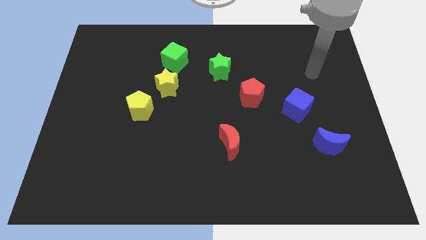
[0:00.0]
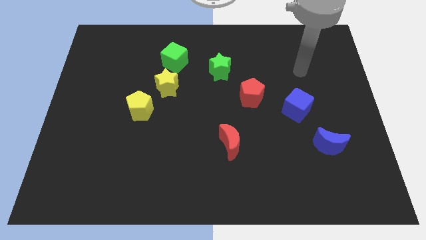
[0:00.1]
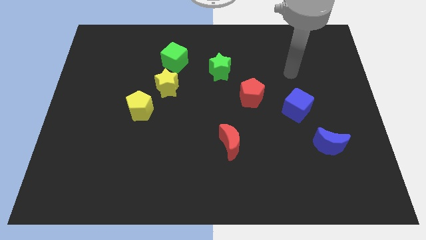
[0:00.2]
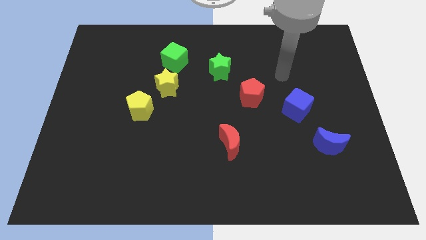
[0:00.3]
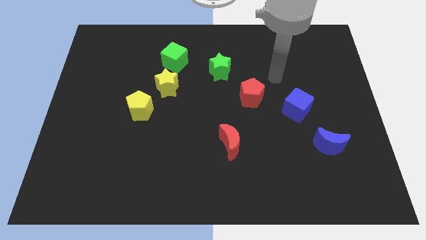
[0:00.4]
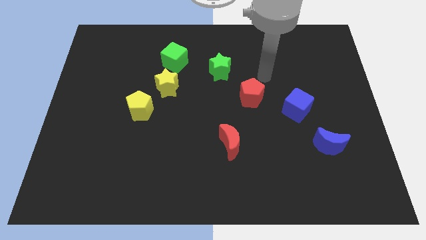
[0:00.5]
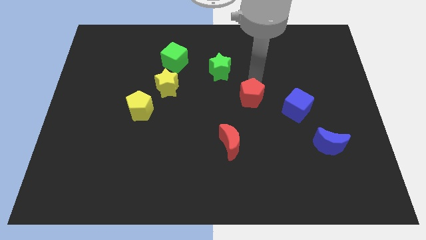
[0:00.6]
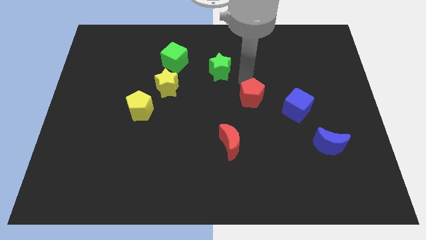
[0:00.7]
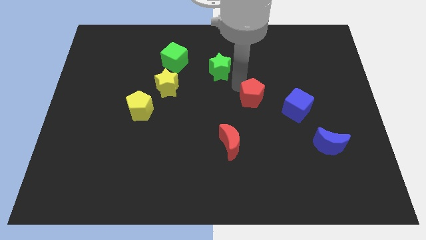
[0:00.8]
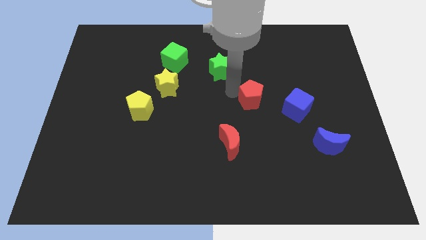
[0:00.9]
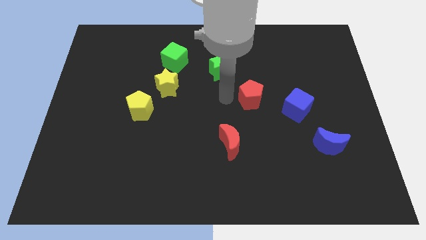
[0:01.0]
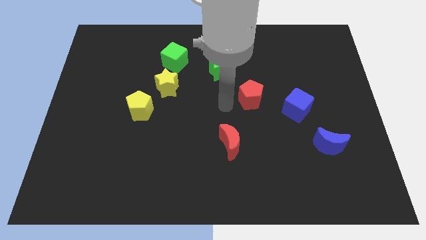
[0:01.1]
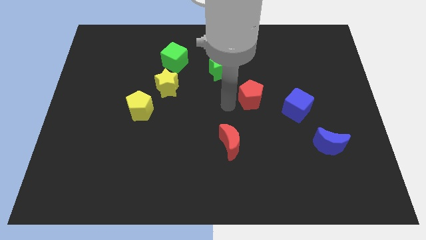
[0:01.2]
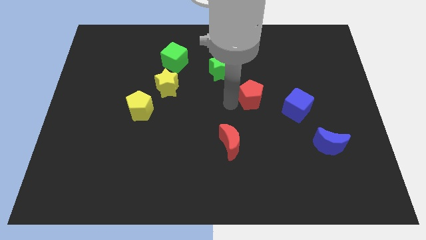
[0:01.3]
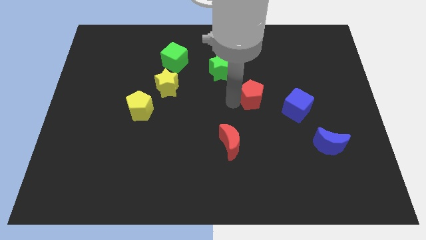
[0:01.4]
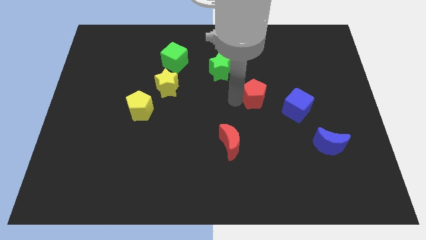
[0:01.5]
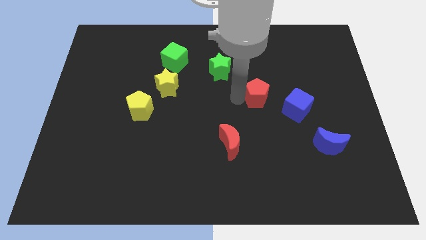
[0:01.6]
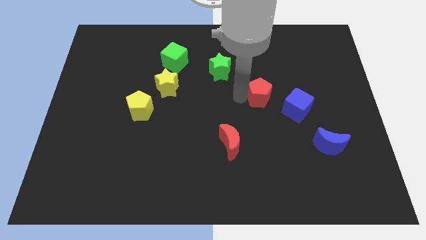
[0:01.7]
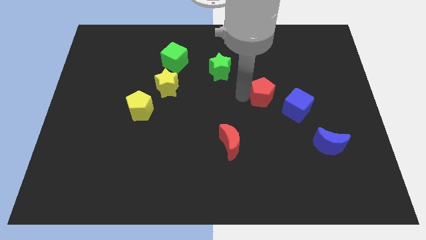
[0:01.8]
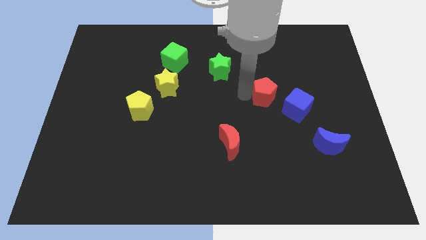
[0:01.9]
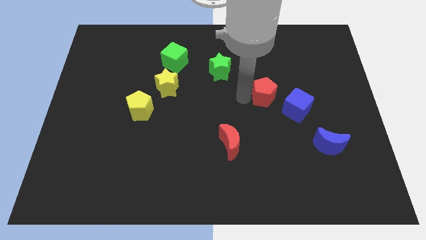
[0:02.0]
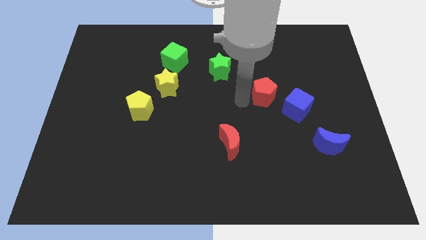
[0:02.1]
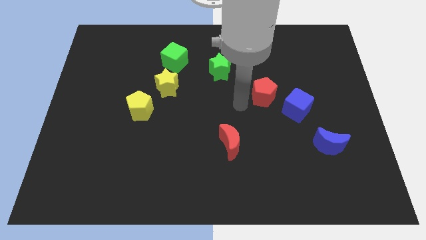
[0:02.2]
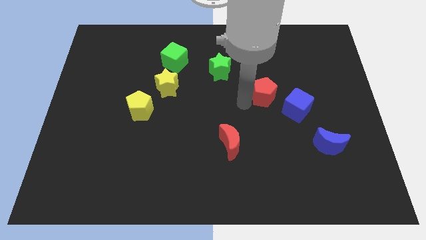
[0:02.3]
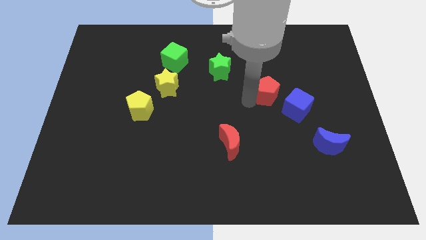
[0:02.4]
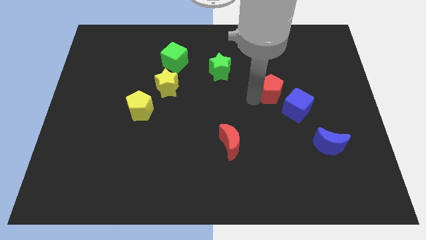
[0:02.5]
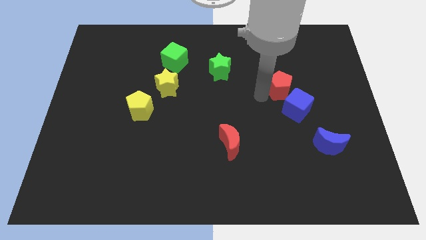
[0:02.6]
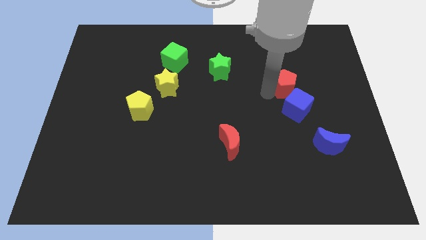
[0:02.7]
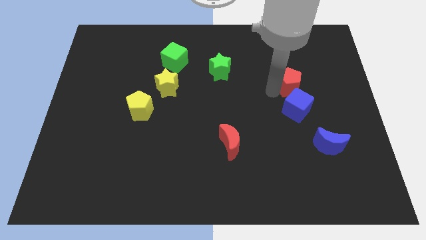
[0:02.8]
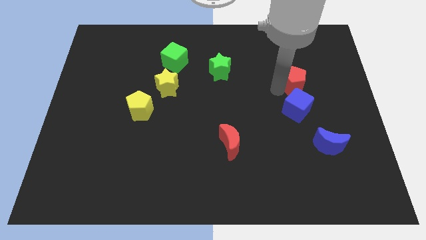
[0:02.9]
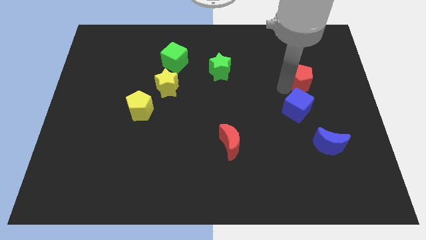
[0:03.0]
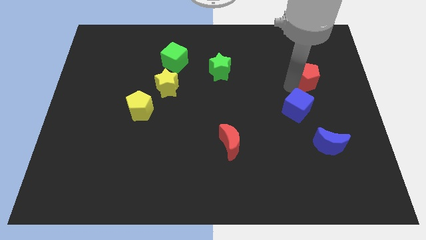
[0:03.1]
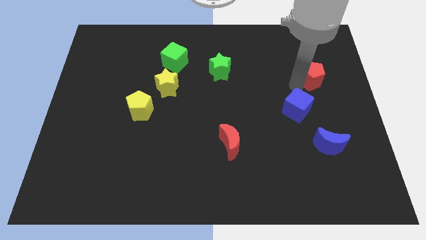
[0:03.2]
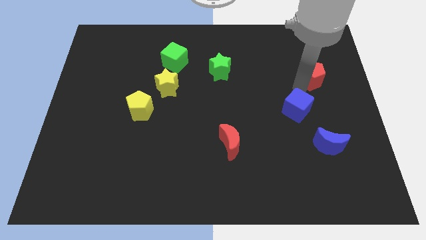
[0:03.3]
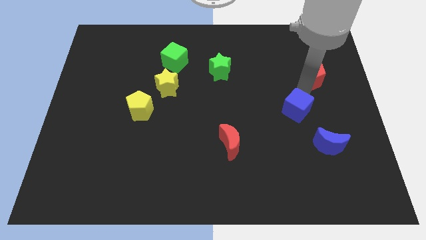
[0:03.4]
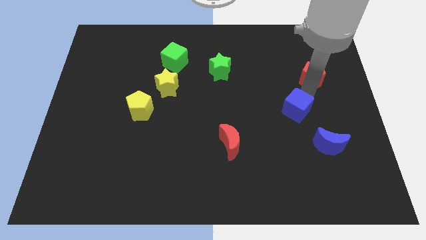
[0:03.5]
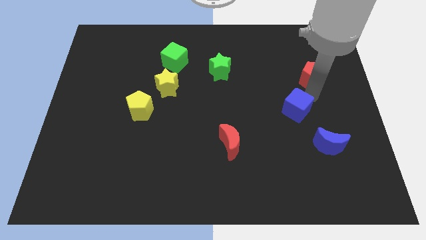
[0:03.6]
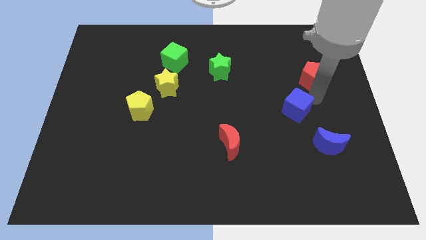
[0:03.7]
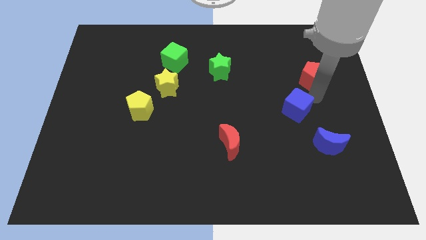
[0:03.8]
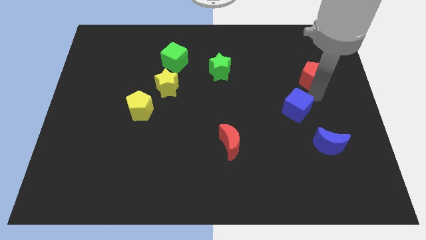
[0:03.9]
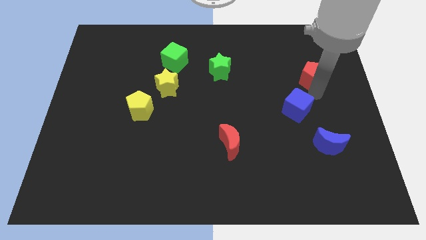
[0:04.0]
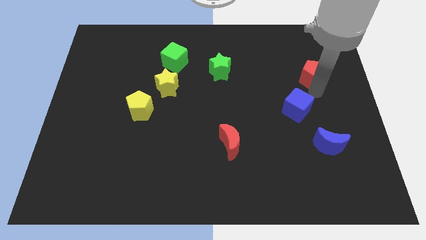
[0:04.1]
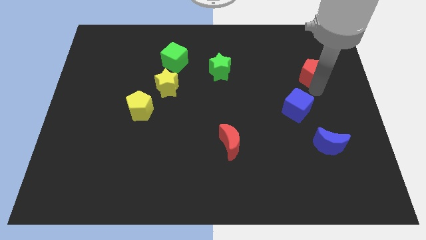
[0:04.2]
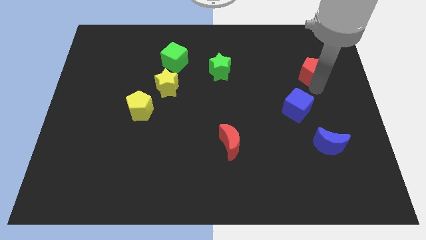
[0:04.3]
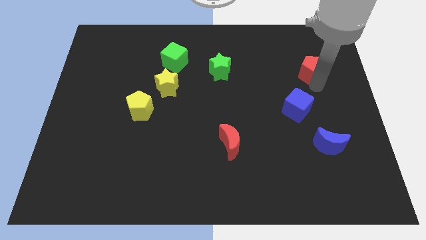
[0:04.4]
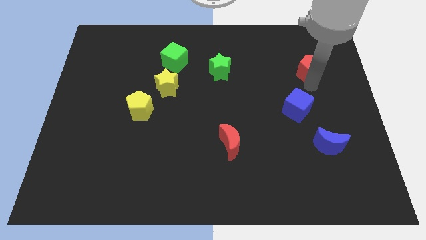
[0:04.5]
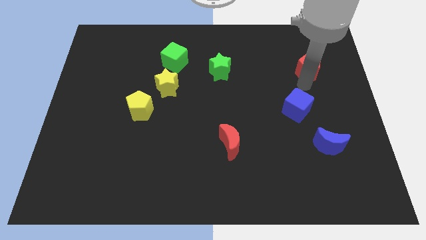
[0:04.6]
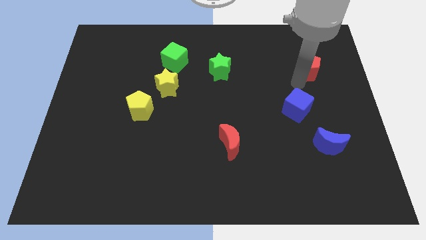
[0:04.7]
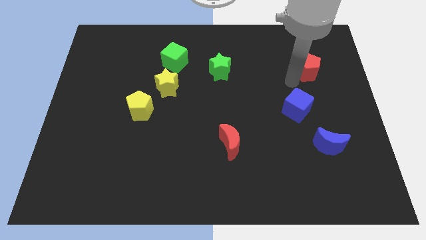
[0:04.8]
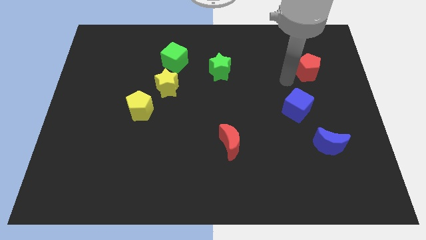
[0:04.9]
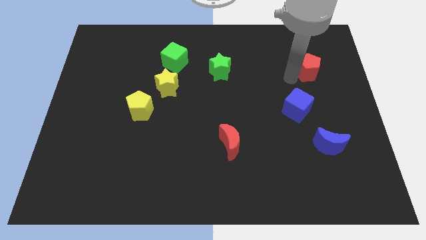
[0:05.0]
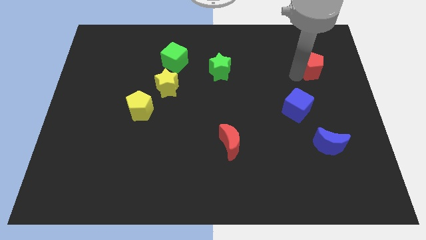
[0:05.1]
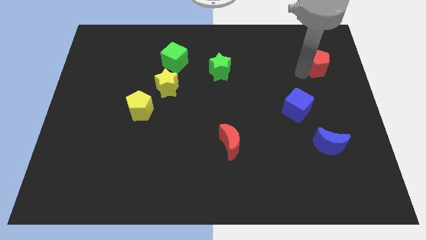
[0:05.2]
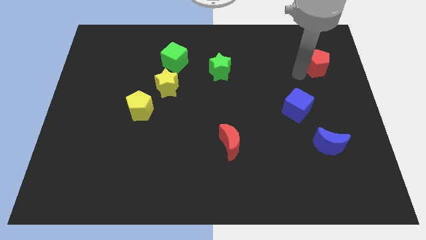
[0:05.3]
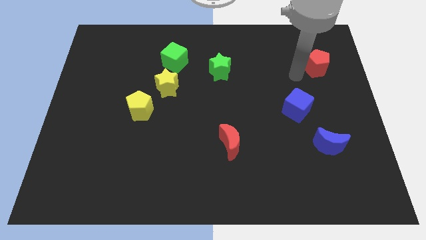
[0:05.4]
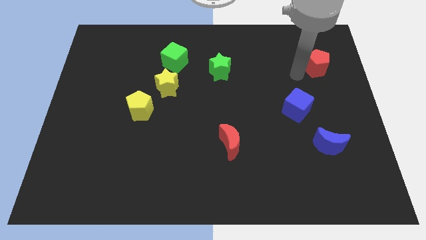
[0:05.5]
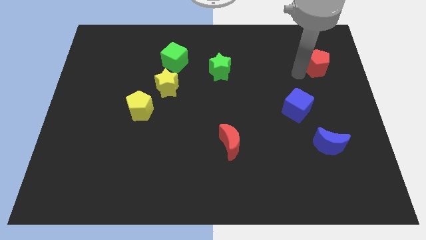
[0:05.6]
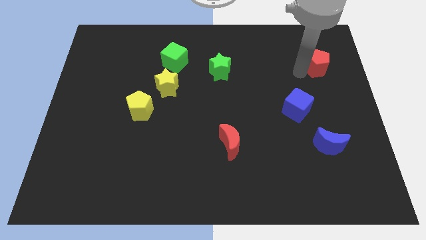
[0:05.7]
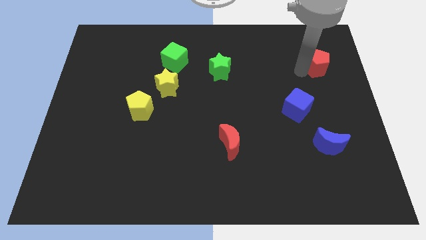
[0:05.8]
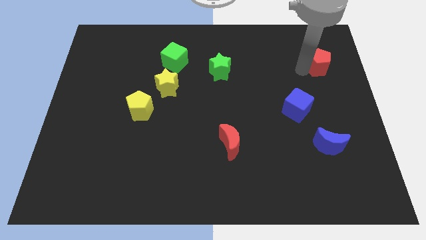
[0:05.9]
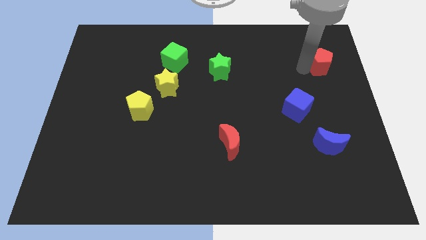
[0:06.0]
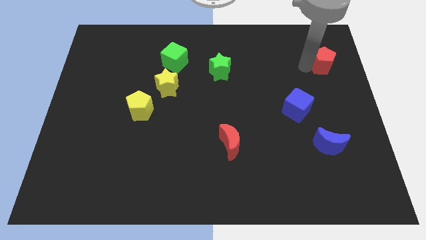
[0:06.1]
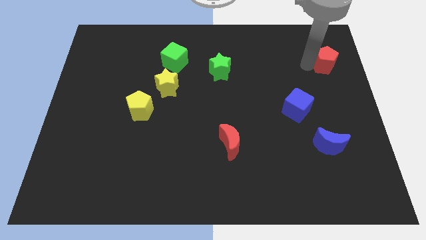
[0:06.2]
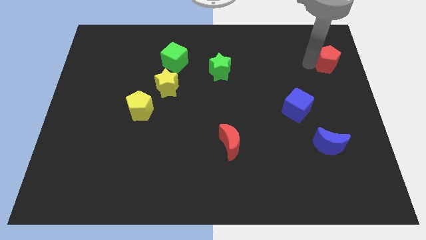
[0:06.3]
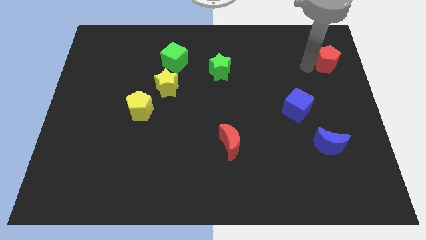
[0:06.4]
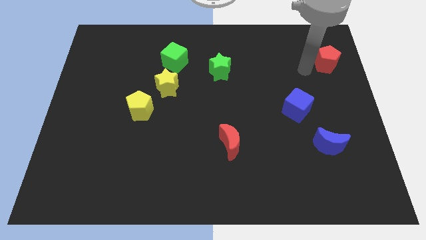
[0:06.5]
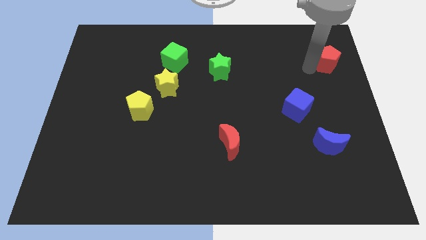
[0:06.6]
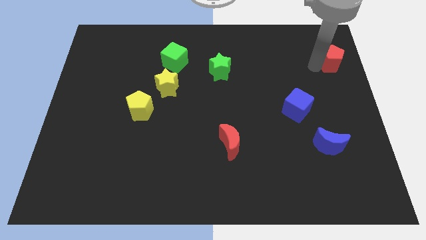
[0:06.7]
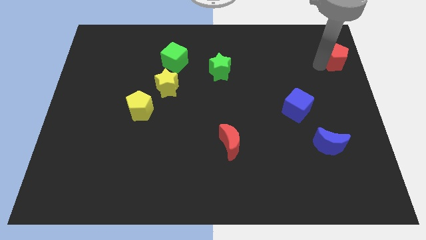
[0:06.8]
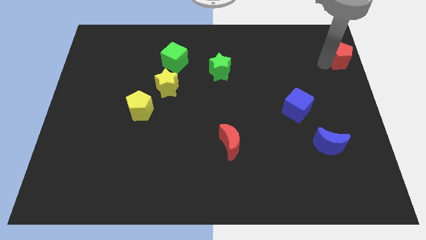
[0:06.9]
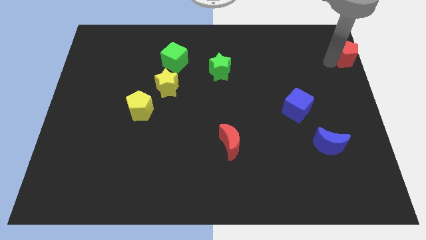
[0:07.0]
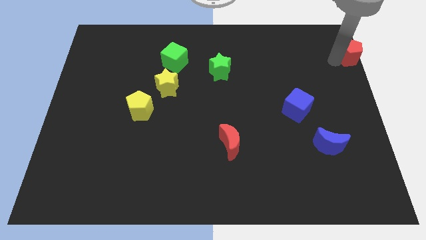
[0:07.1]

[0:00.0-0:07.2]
slide the red pentagon to the upper right corner

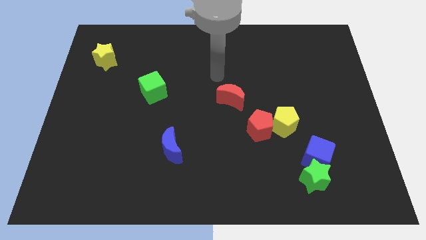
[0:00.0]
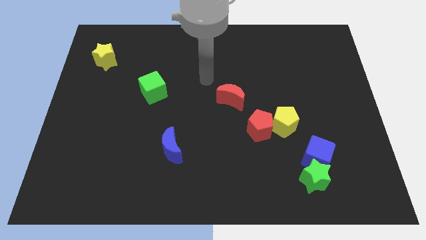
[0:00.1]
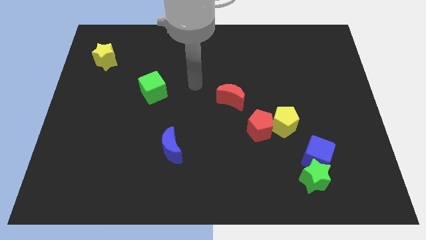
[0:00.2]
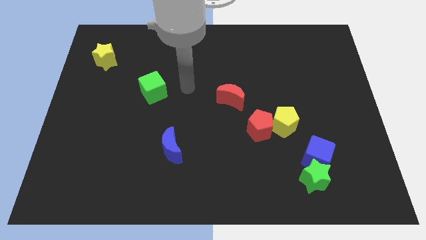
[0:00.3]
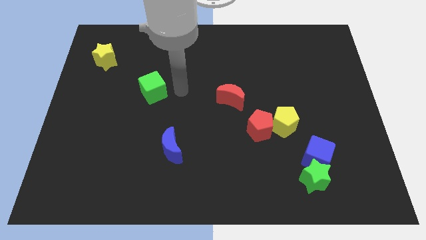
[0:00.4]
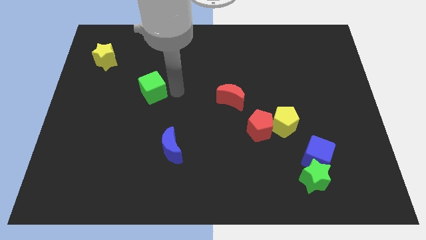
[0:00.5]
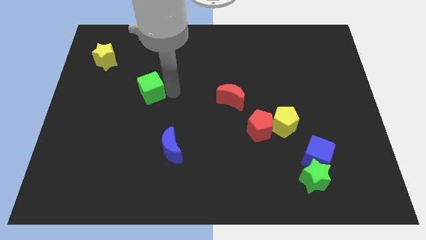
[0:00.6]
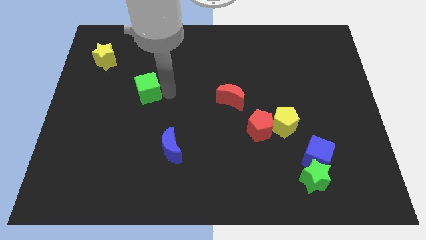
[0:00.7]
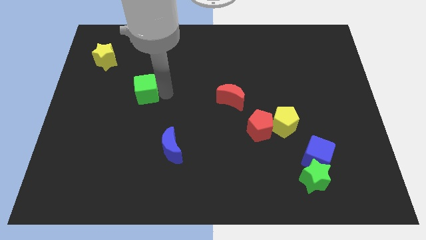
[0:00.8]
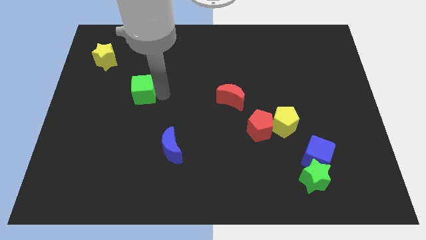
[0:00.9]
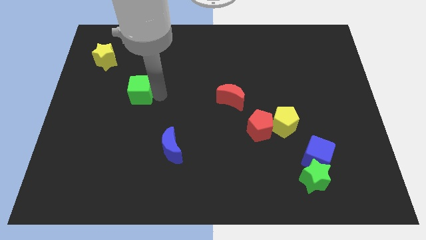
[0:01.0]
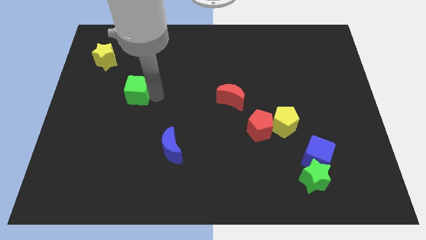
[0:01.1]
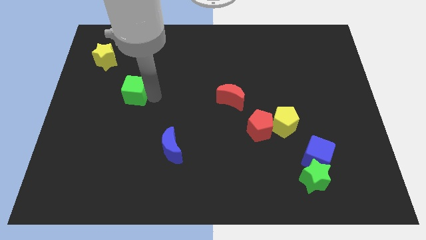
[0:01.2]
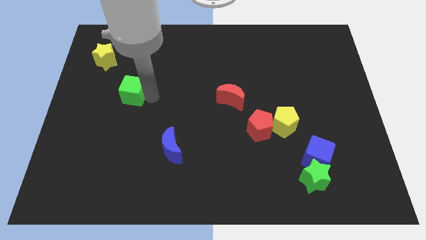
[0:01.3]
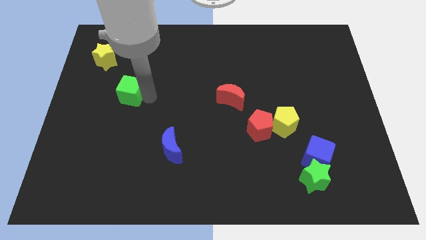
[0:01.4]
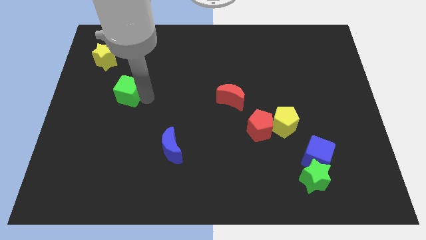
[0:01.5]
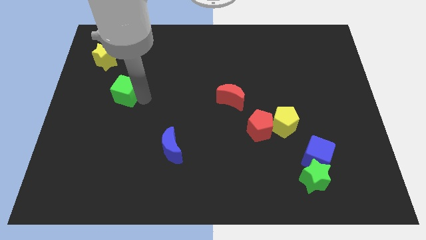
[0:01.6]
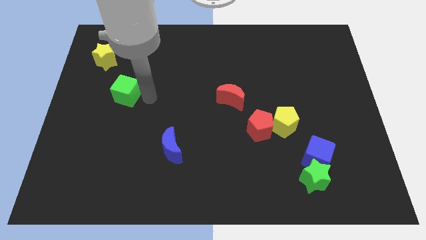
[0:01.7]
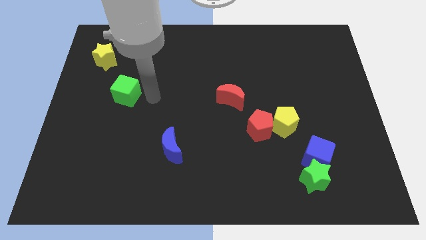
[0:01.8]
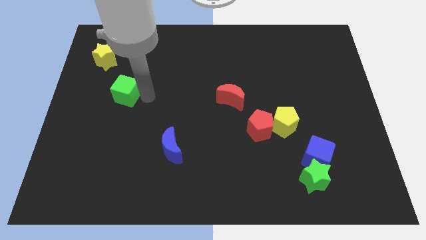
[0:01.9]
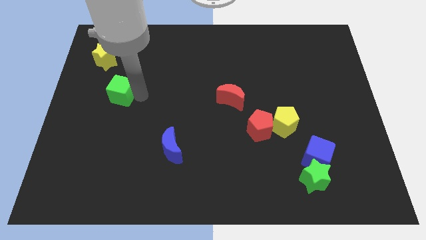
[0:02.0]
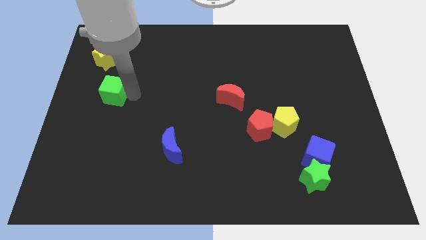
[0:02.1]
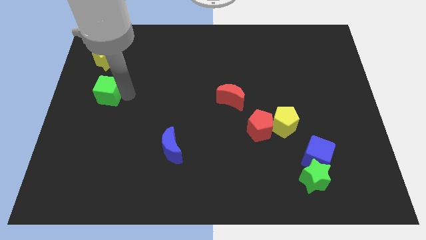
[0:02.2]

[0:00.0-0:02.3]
move the green cube to the center left
